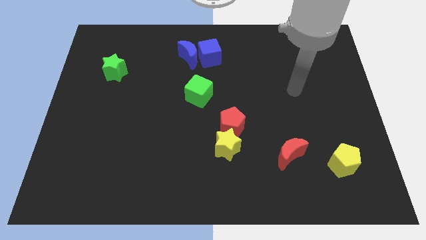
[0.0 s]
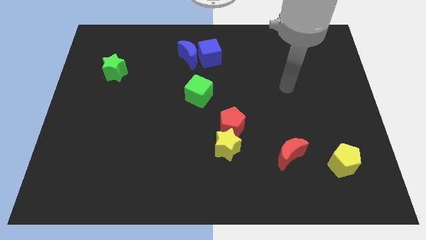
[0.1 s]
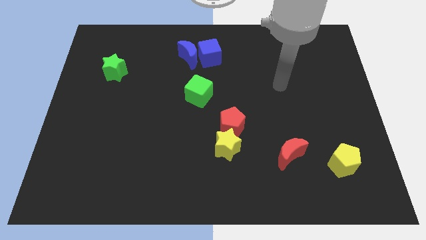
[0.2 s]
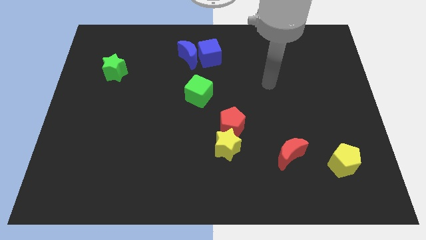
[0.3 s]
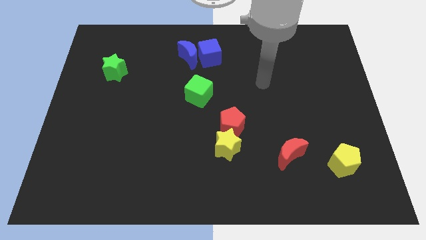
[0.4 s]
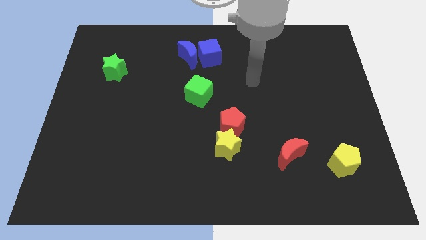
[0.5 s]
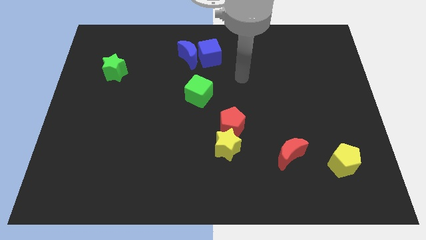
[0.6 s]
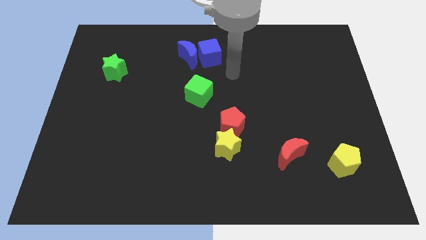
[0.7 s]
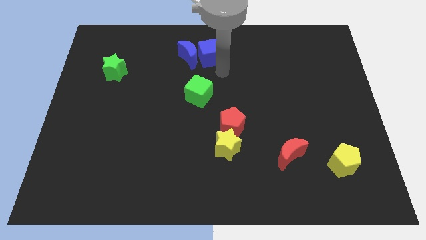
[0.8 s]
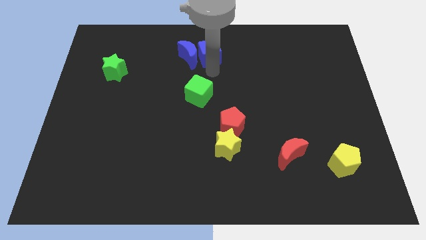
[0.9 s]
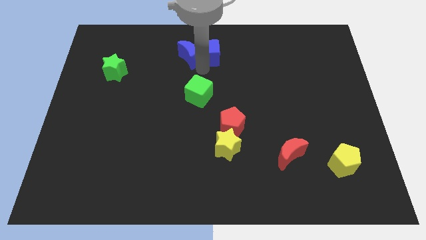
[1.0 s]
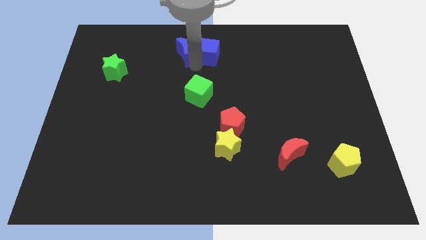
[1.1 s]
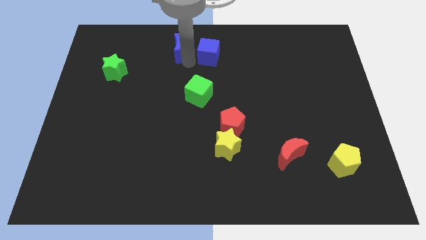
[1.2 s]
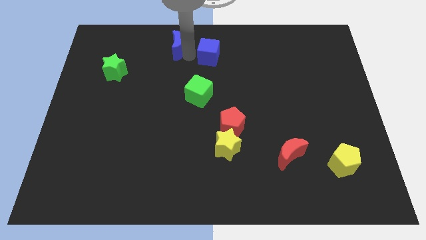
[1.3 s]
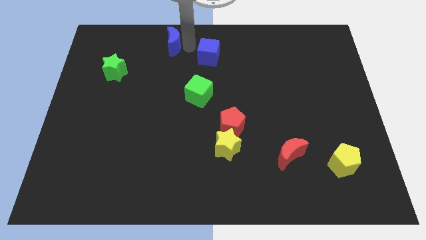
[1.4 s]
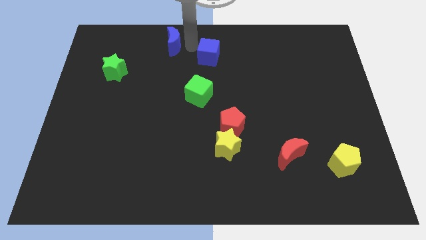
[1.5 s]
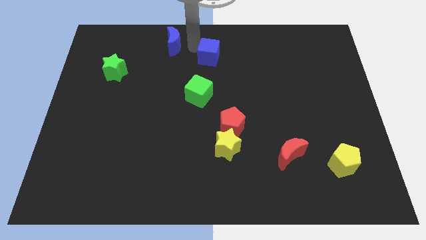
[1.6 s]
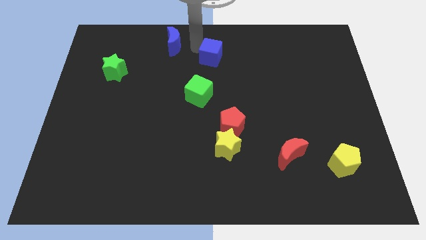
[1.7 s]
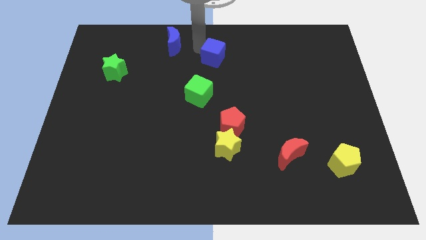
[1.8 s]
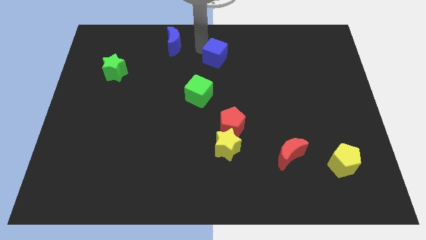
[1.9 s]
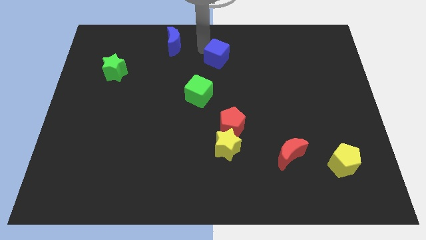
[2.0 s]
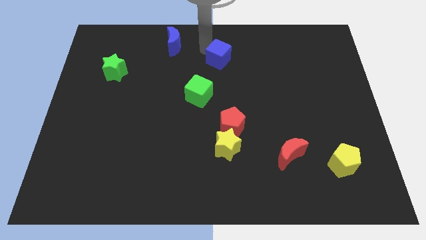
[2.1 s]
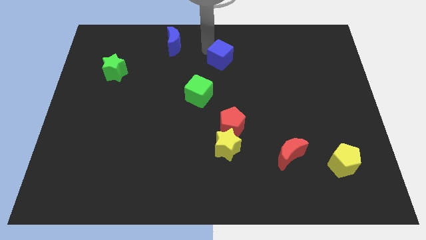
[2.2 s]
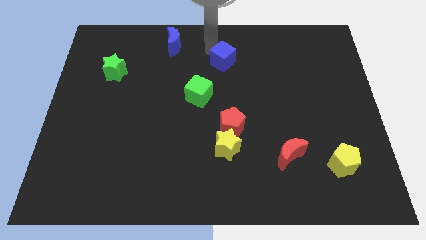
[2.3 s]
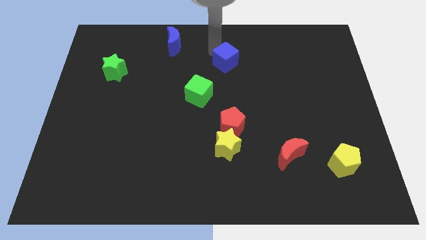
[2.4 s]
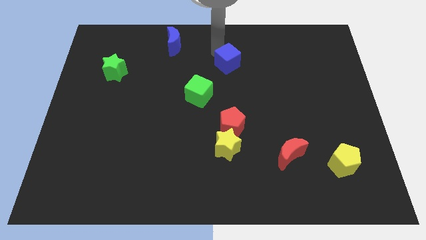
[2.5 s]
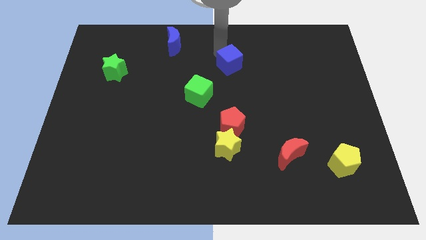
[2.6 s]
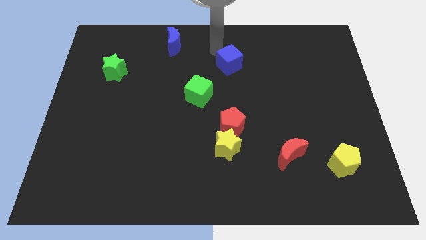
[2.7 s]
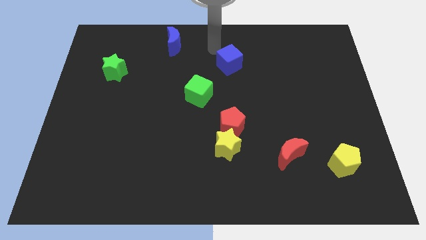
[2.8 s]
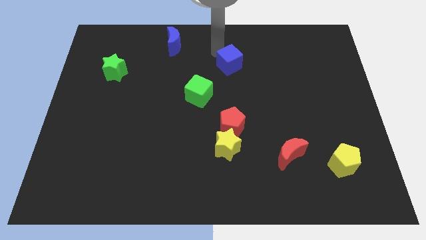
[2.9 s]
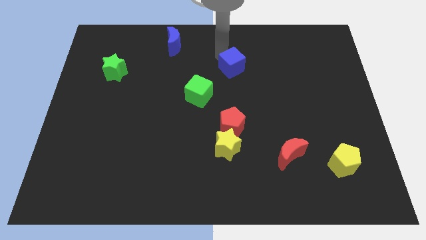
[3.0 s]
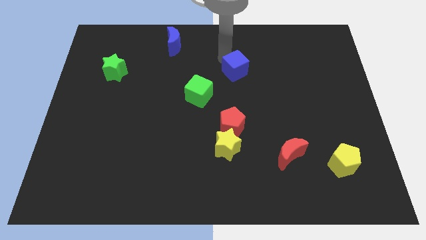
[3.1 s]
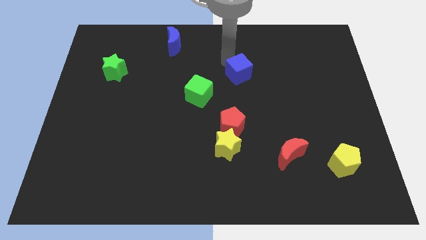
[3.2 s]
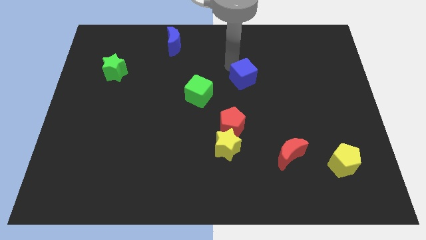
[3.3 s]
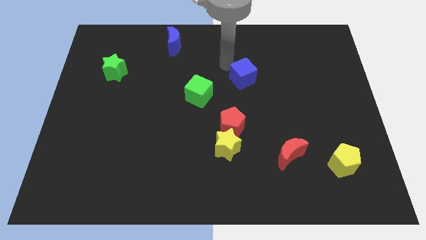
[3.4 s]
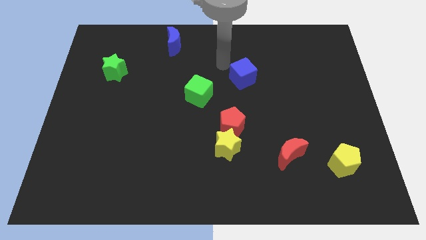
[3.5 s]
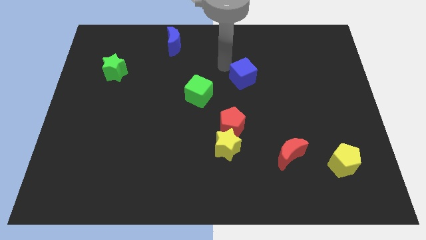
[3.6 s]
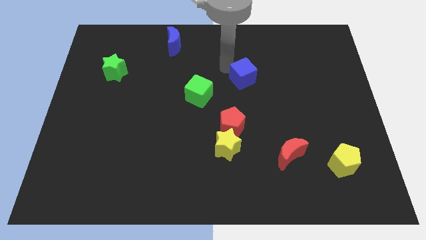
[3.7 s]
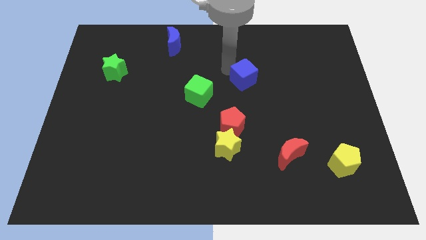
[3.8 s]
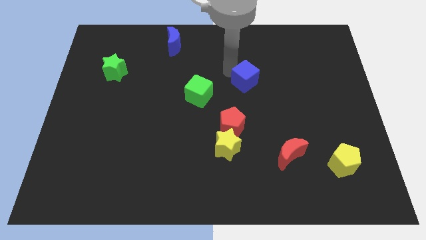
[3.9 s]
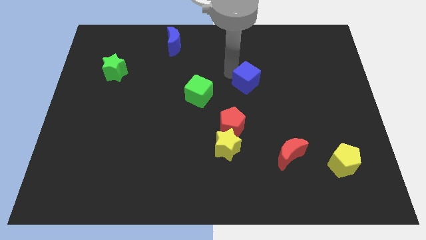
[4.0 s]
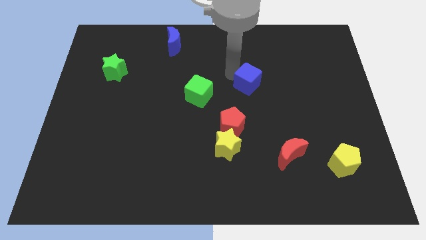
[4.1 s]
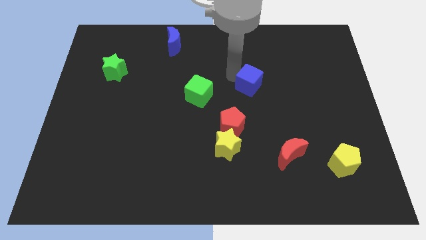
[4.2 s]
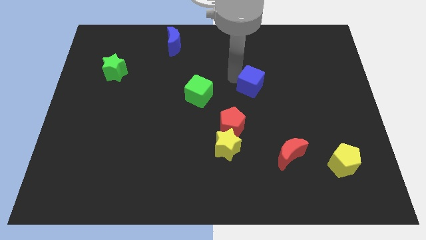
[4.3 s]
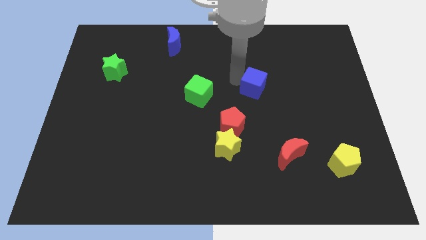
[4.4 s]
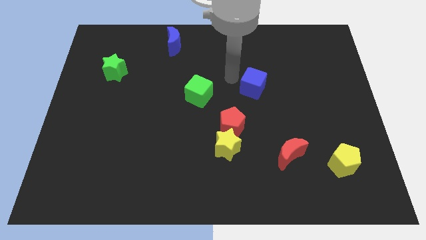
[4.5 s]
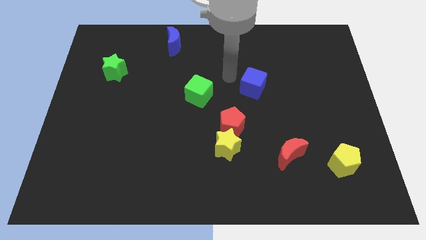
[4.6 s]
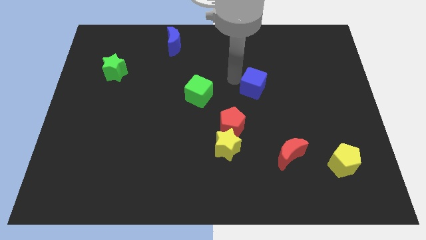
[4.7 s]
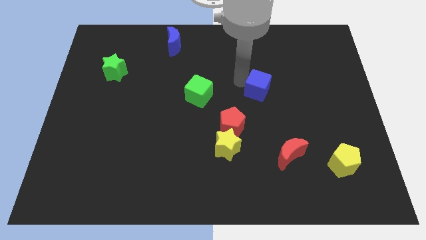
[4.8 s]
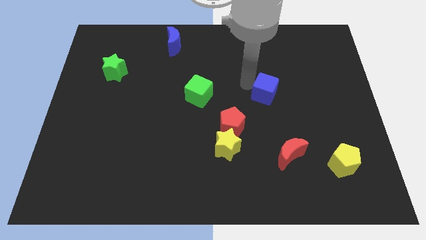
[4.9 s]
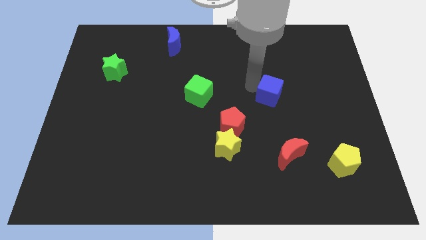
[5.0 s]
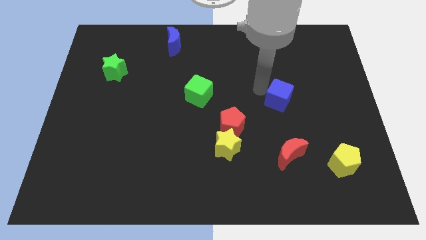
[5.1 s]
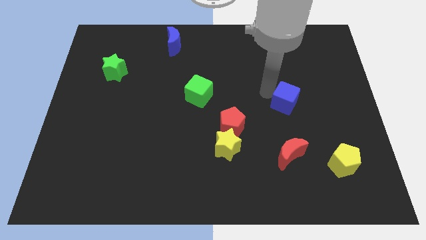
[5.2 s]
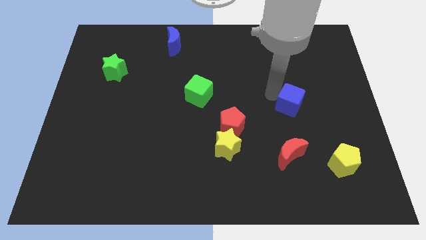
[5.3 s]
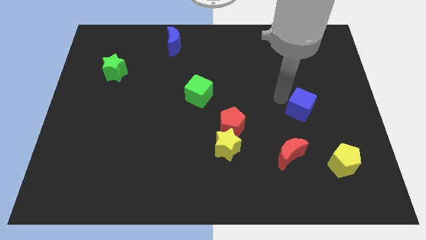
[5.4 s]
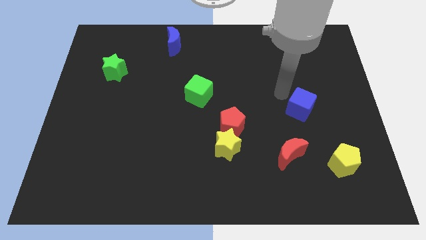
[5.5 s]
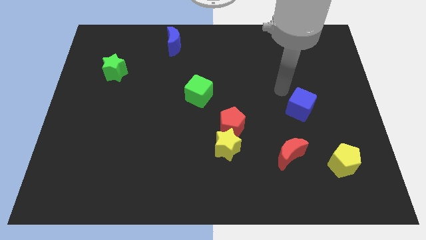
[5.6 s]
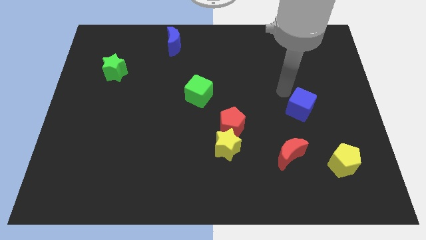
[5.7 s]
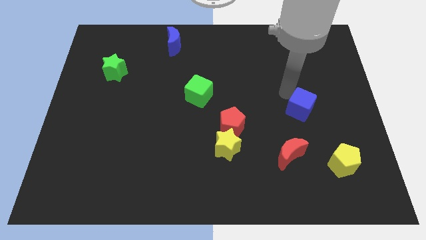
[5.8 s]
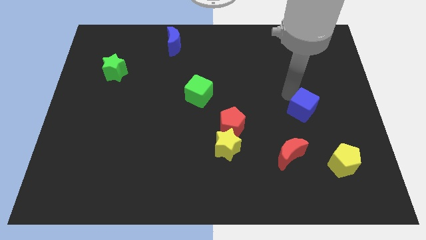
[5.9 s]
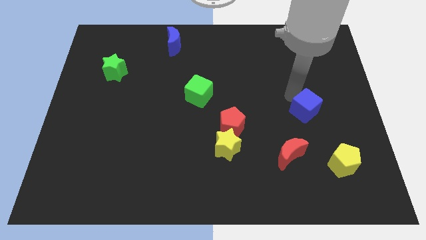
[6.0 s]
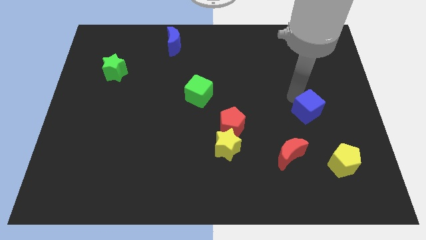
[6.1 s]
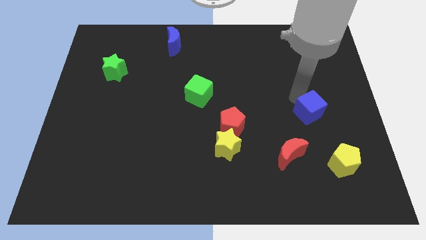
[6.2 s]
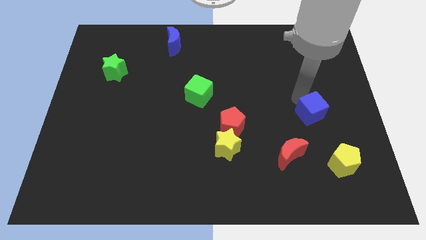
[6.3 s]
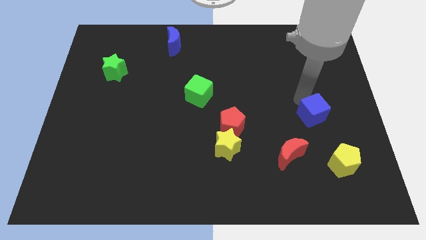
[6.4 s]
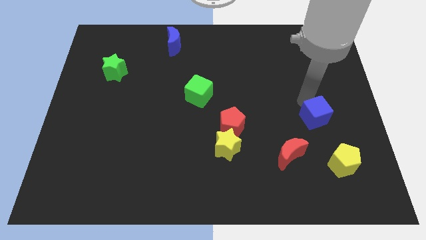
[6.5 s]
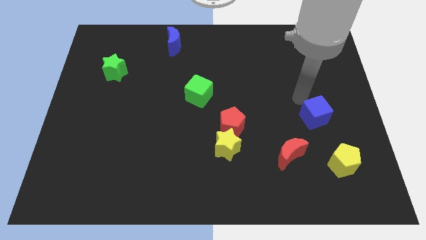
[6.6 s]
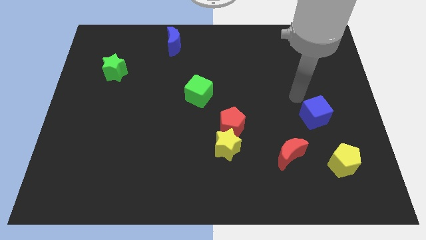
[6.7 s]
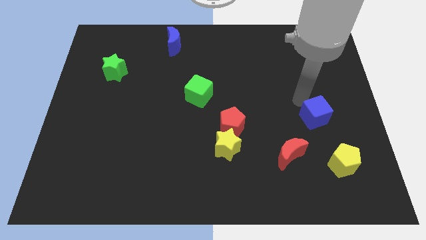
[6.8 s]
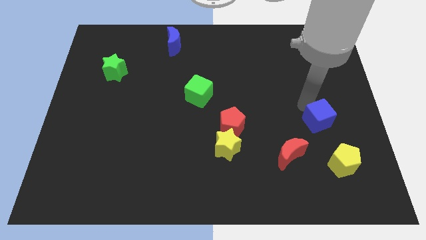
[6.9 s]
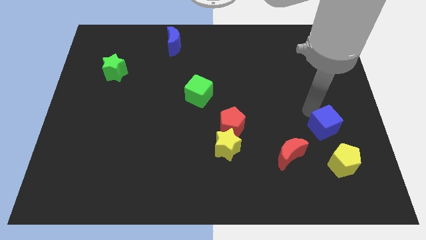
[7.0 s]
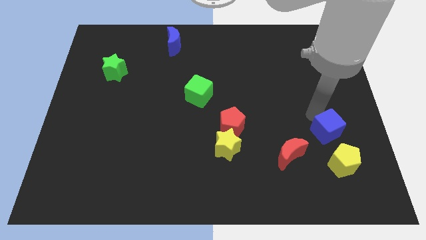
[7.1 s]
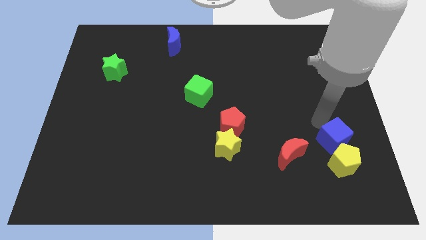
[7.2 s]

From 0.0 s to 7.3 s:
put the blue cube to the right of the red moon

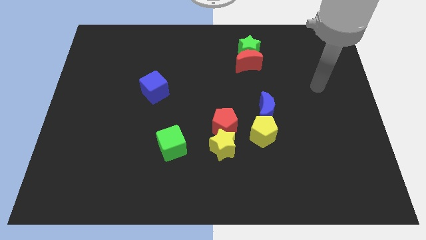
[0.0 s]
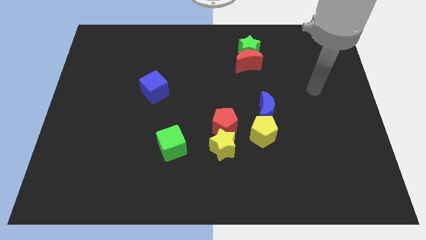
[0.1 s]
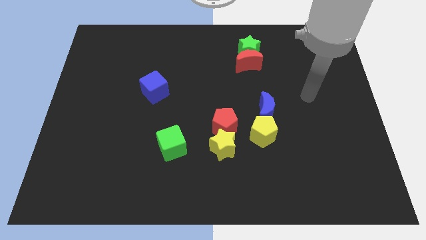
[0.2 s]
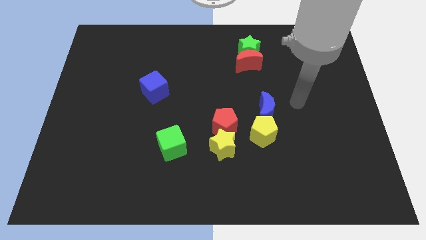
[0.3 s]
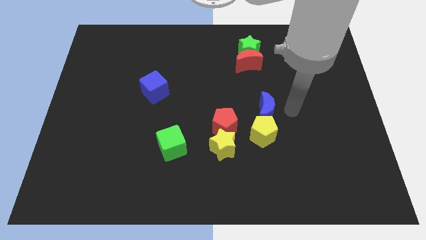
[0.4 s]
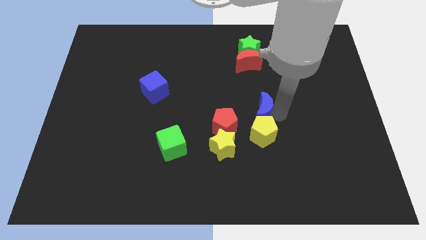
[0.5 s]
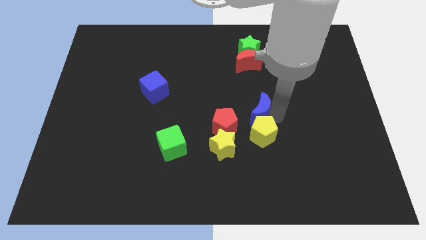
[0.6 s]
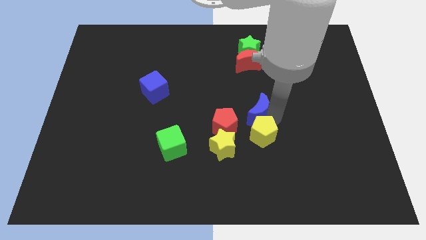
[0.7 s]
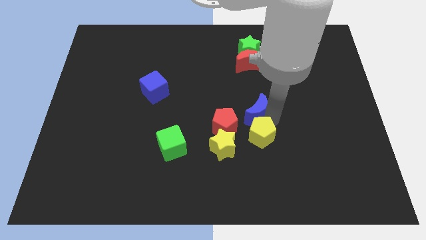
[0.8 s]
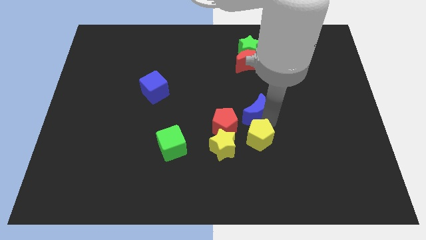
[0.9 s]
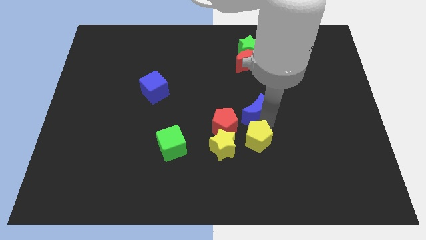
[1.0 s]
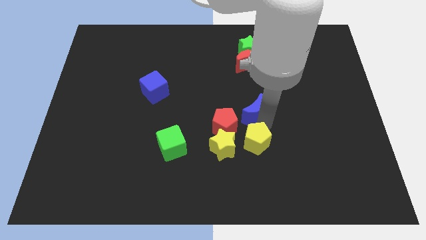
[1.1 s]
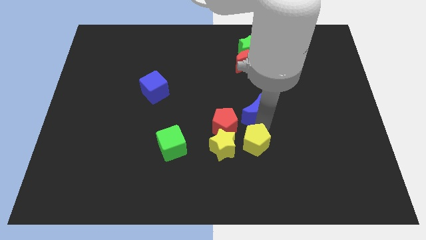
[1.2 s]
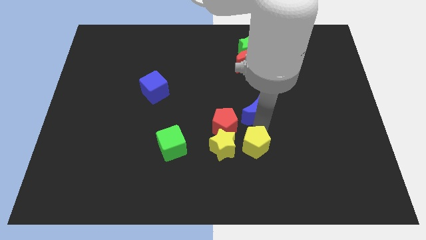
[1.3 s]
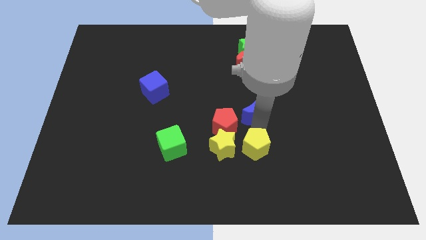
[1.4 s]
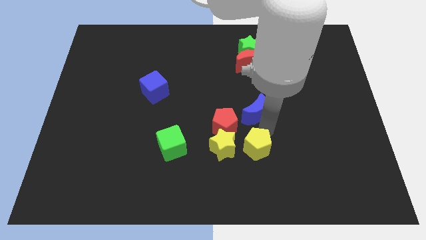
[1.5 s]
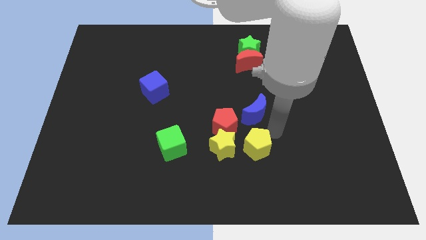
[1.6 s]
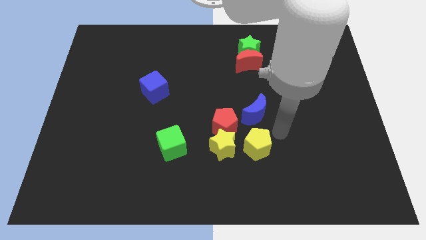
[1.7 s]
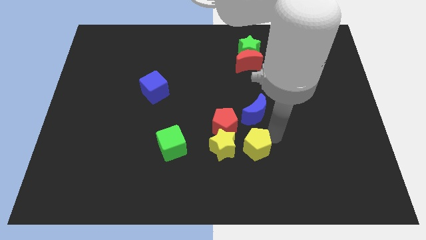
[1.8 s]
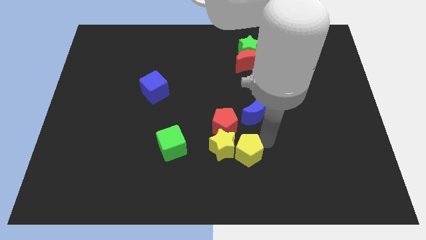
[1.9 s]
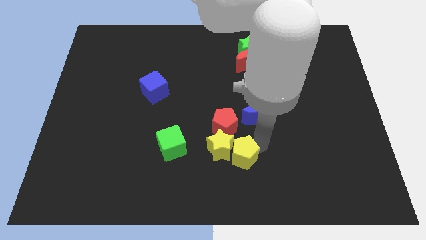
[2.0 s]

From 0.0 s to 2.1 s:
push the yellow pentagon to the bottom side of the red pentagon
